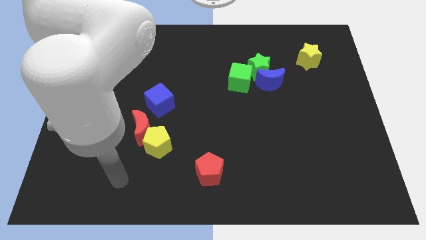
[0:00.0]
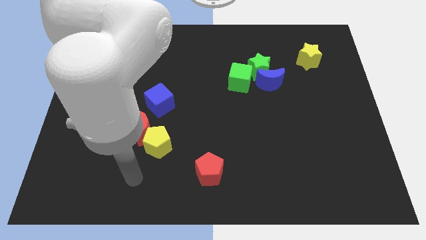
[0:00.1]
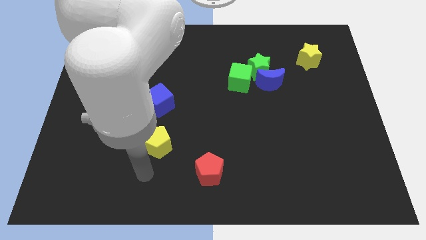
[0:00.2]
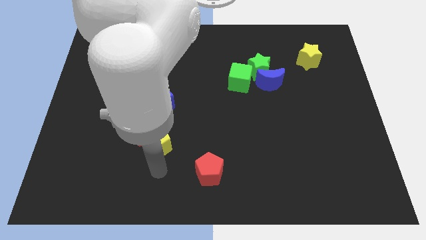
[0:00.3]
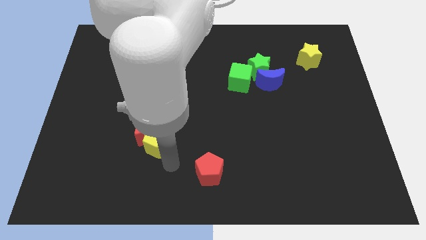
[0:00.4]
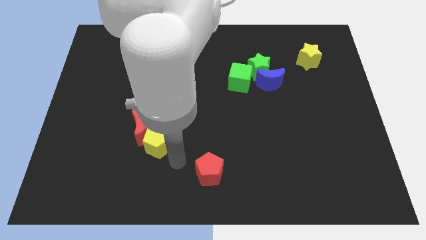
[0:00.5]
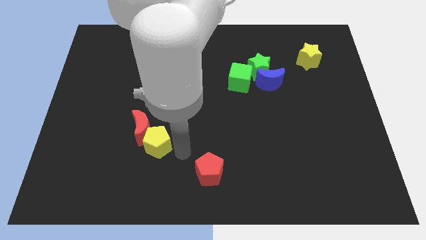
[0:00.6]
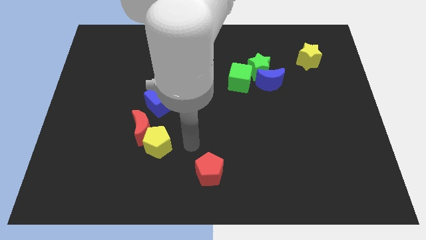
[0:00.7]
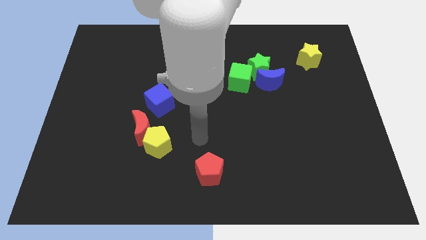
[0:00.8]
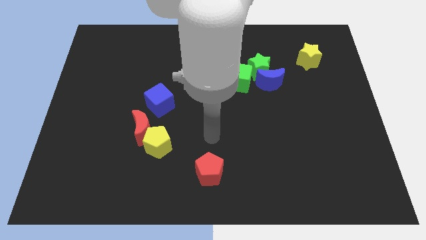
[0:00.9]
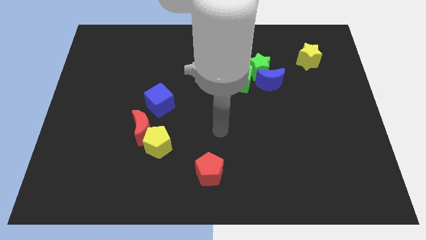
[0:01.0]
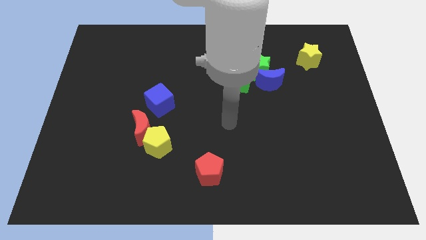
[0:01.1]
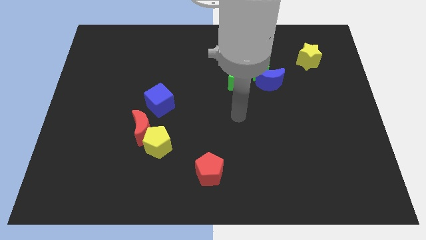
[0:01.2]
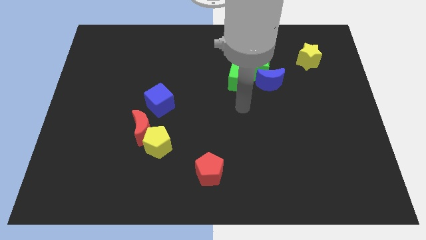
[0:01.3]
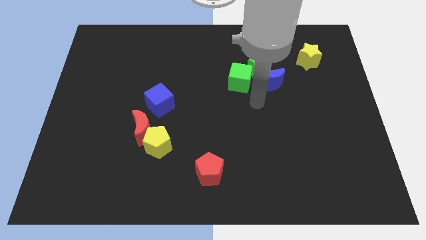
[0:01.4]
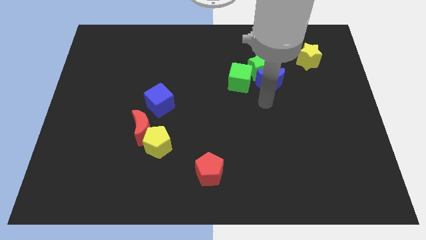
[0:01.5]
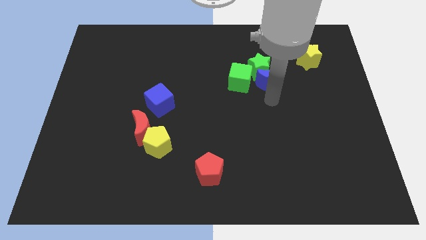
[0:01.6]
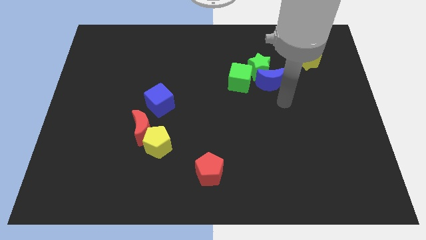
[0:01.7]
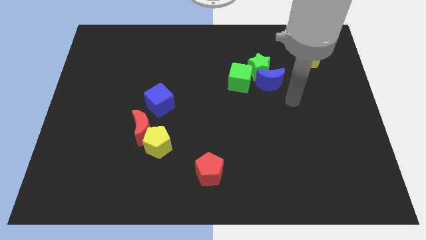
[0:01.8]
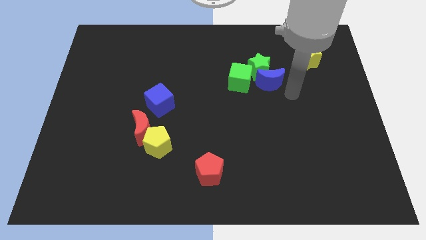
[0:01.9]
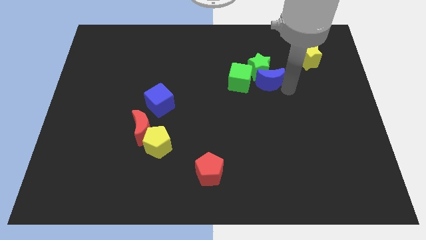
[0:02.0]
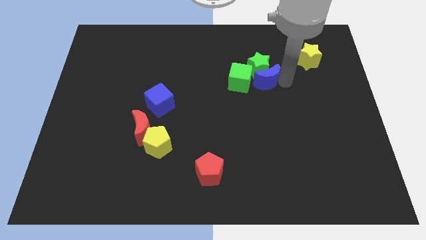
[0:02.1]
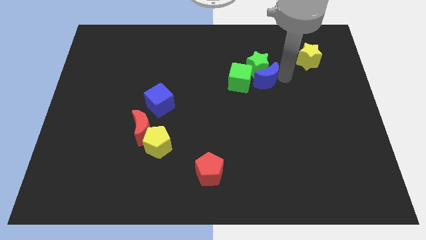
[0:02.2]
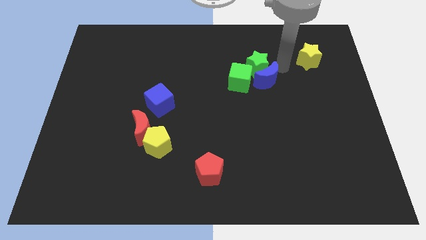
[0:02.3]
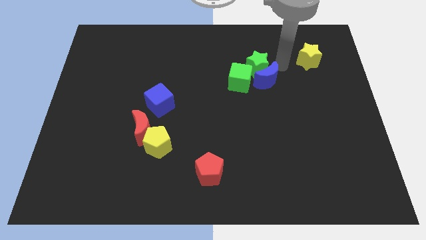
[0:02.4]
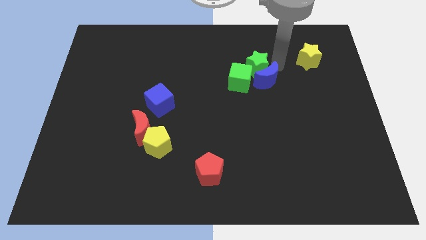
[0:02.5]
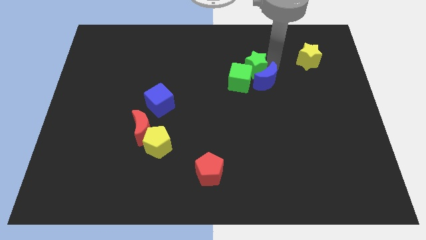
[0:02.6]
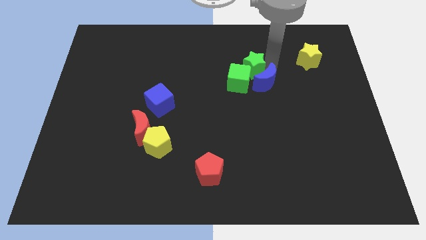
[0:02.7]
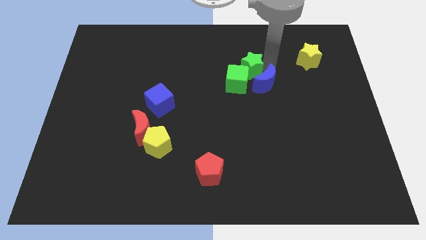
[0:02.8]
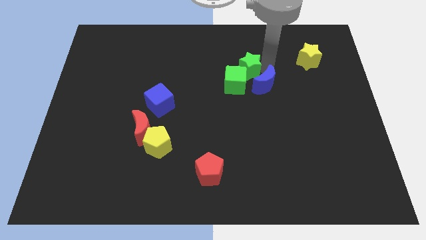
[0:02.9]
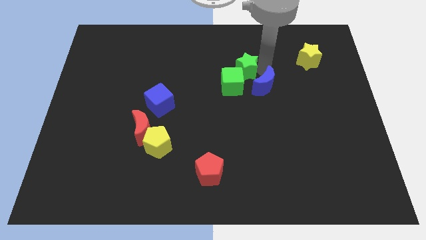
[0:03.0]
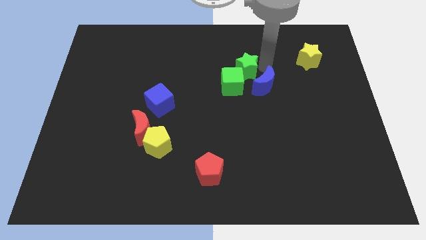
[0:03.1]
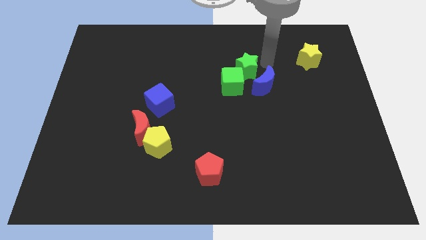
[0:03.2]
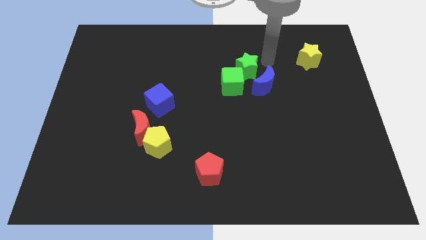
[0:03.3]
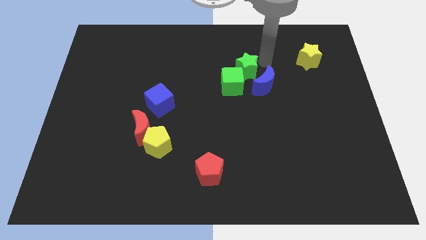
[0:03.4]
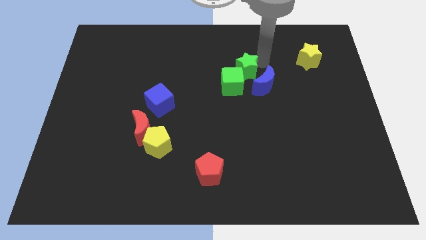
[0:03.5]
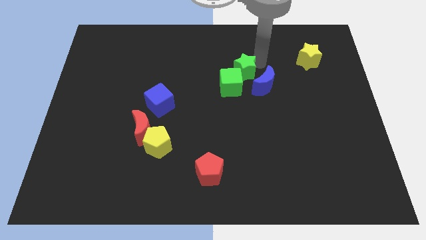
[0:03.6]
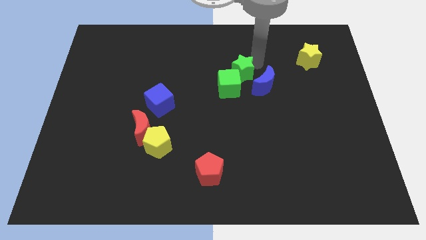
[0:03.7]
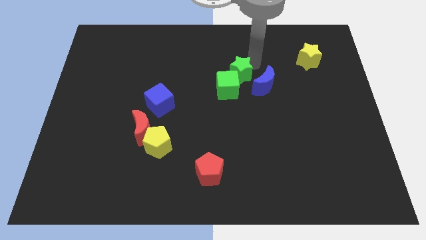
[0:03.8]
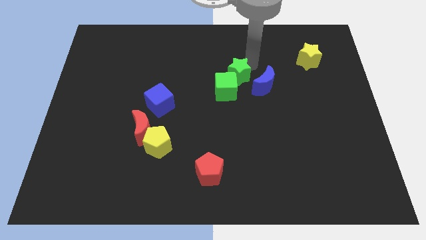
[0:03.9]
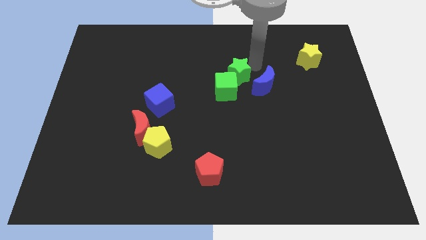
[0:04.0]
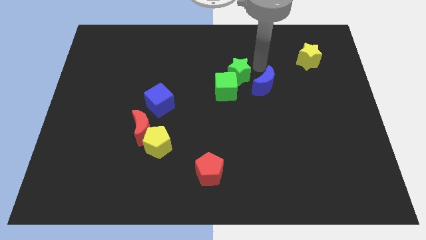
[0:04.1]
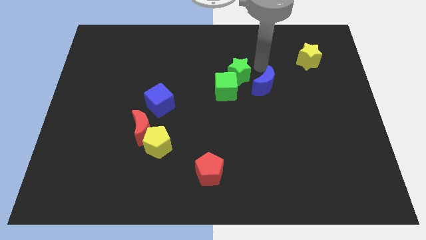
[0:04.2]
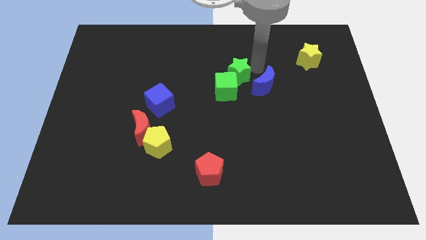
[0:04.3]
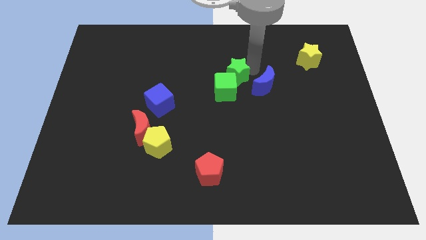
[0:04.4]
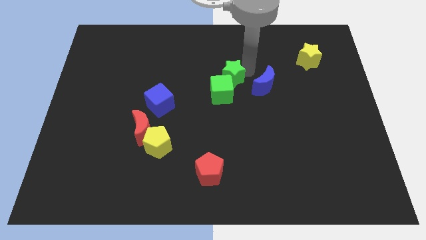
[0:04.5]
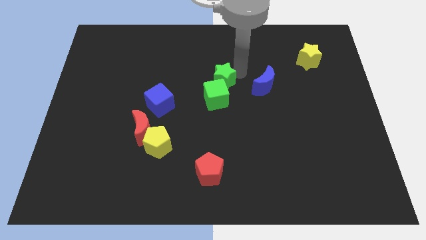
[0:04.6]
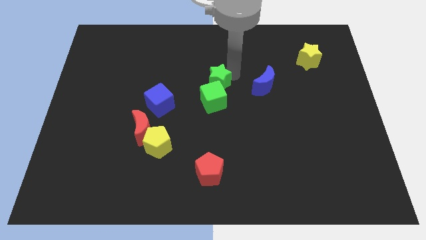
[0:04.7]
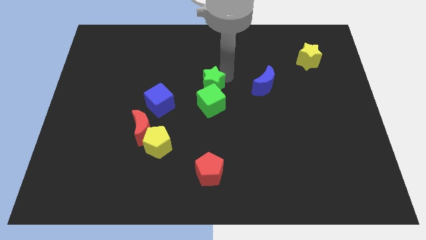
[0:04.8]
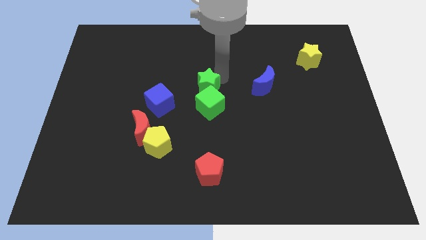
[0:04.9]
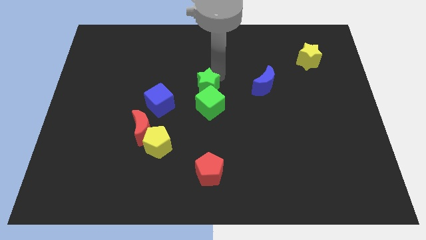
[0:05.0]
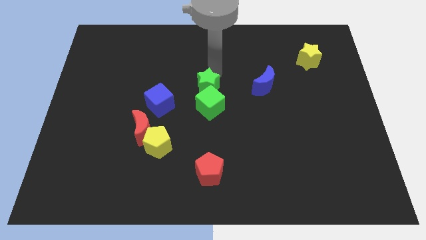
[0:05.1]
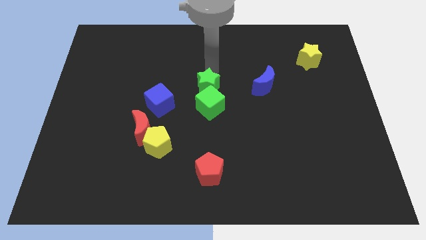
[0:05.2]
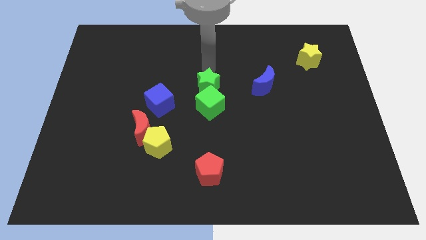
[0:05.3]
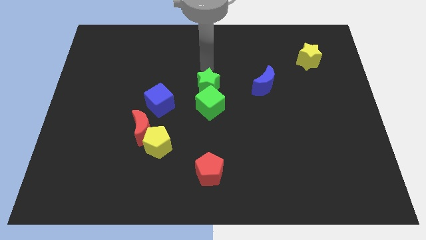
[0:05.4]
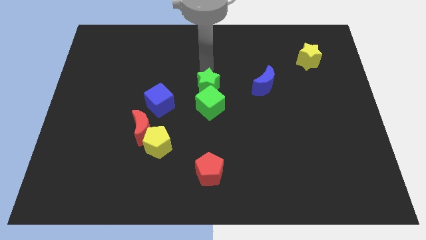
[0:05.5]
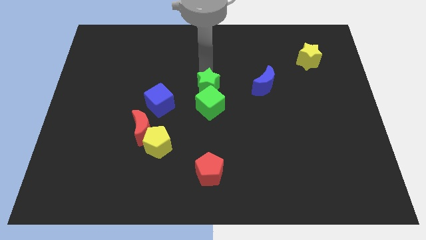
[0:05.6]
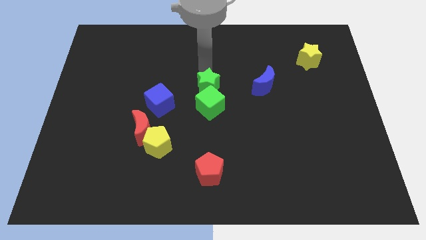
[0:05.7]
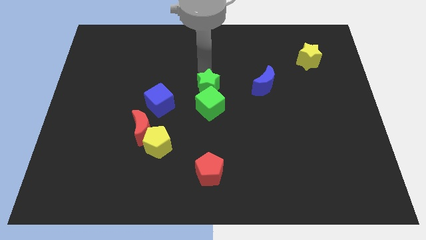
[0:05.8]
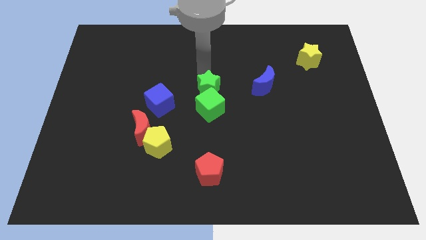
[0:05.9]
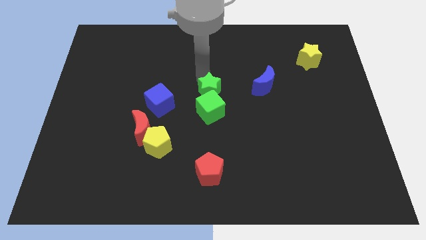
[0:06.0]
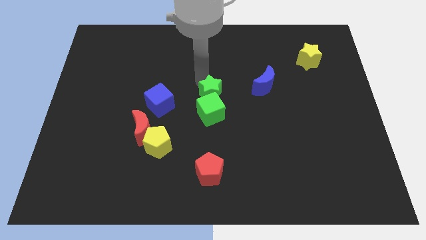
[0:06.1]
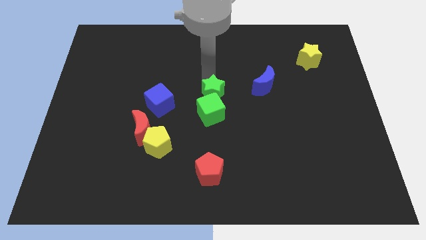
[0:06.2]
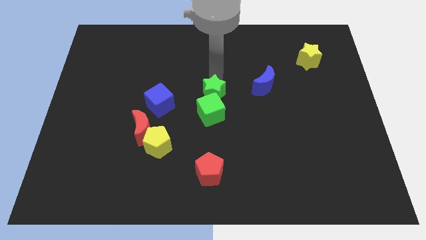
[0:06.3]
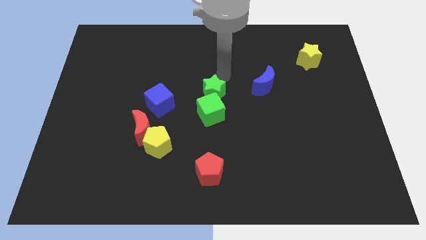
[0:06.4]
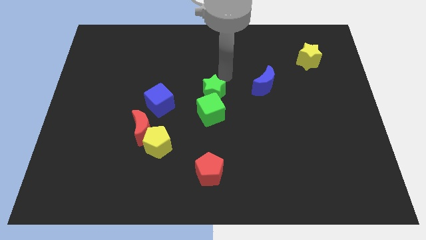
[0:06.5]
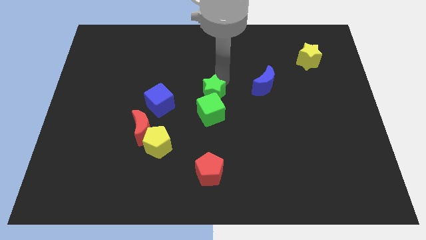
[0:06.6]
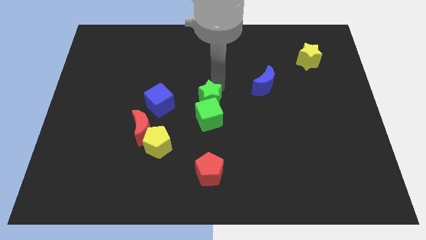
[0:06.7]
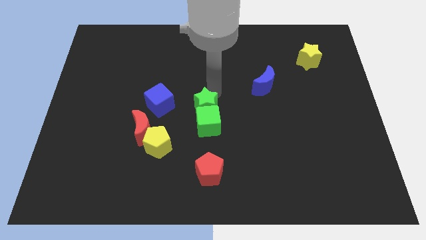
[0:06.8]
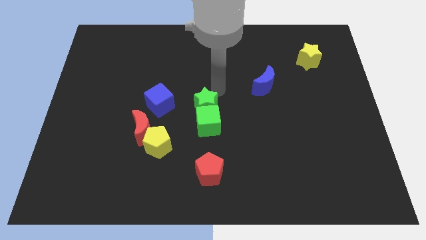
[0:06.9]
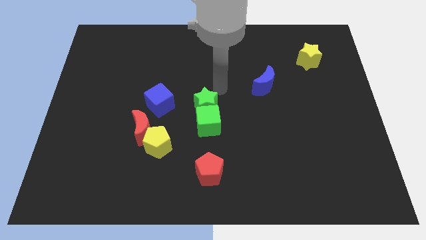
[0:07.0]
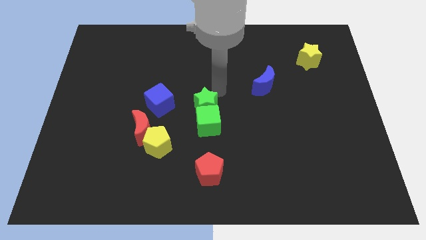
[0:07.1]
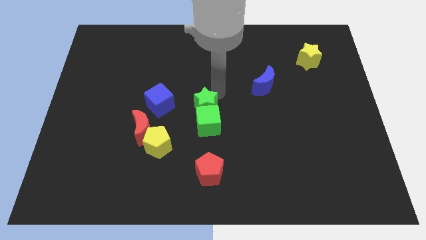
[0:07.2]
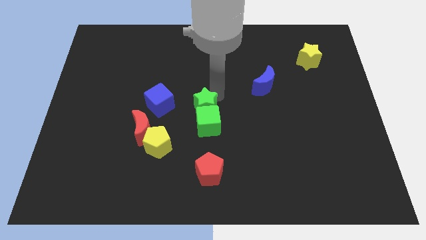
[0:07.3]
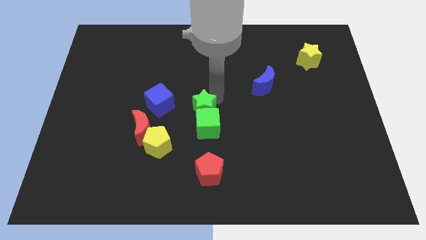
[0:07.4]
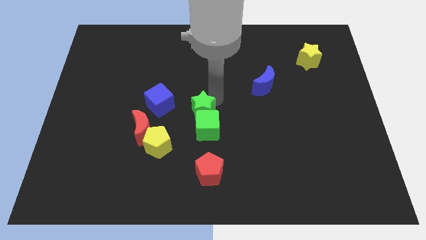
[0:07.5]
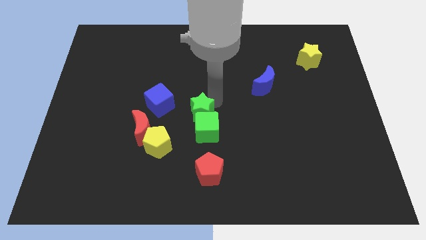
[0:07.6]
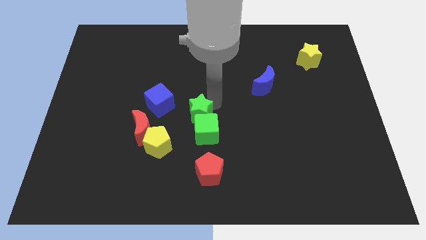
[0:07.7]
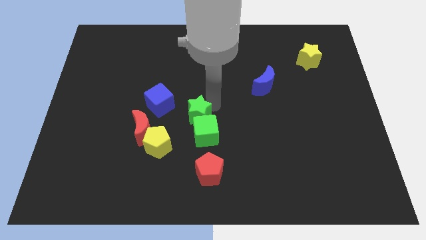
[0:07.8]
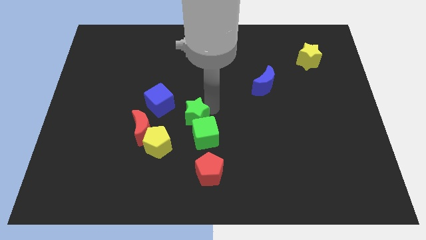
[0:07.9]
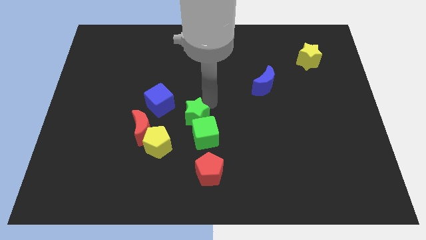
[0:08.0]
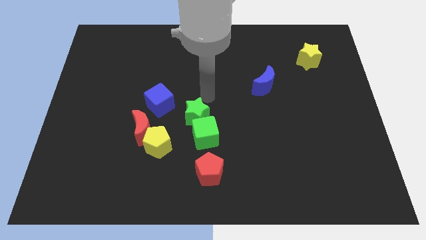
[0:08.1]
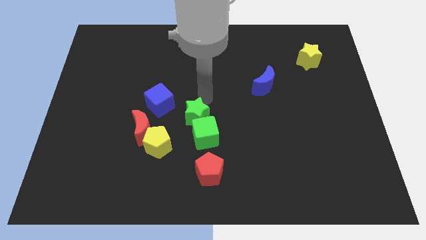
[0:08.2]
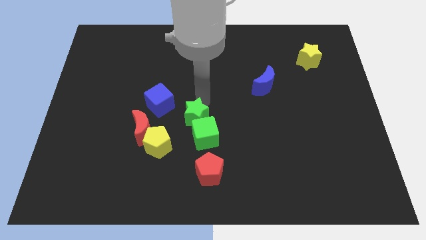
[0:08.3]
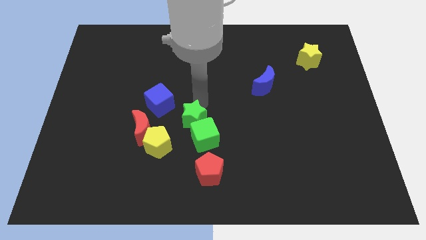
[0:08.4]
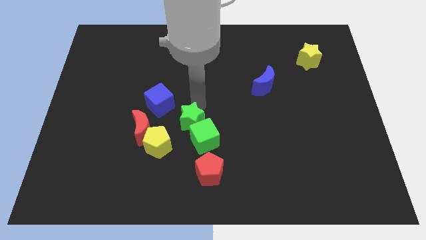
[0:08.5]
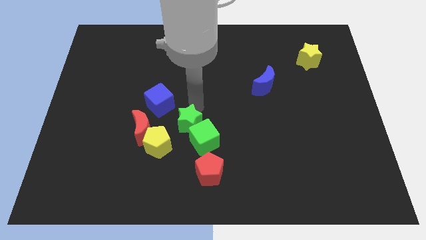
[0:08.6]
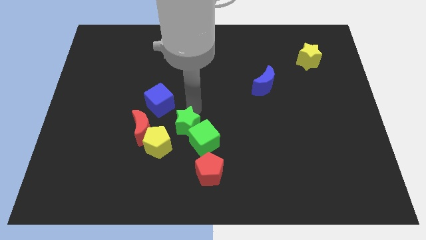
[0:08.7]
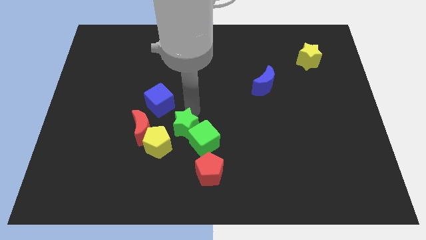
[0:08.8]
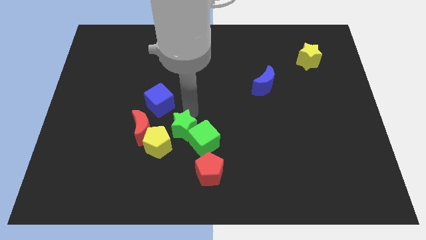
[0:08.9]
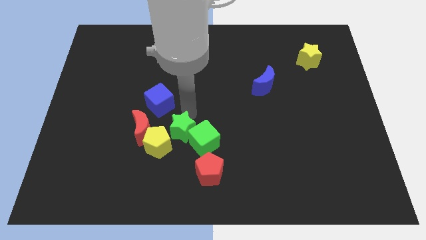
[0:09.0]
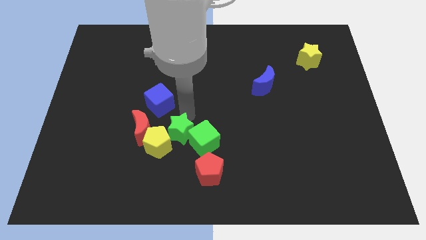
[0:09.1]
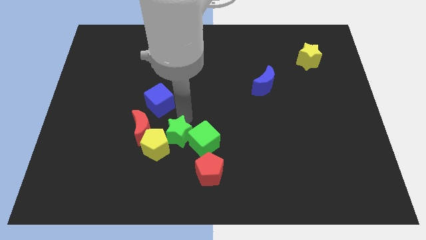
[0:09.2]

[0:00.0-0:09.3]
put the green star to the bottom side of the blue cube
